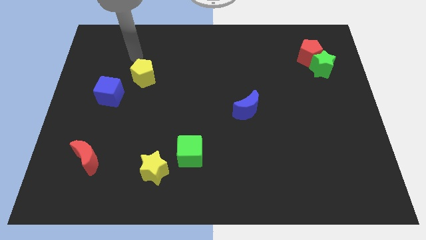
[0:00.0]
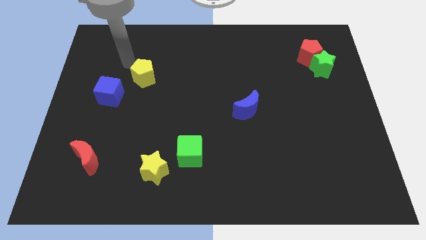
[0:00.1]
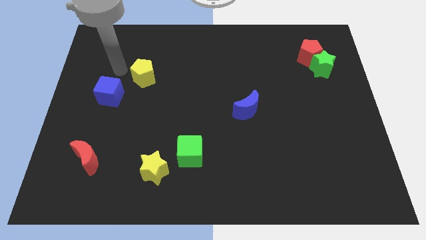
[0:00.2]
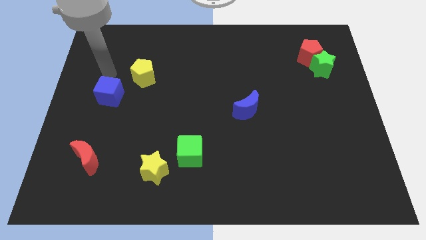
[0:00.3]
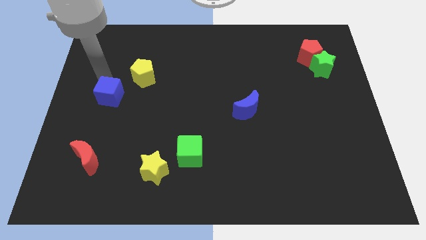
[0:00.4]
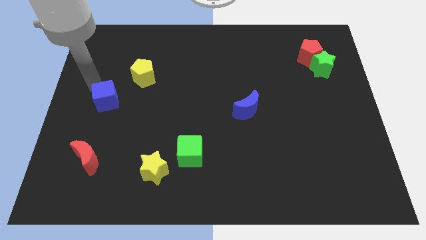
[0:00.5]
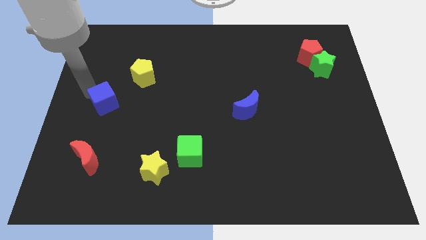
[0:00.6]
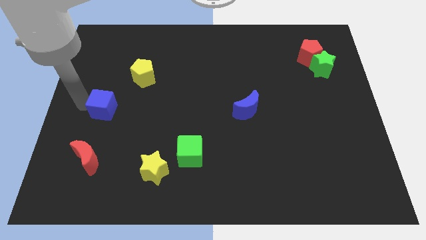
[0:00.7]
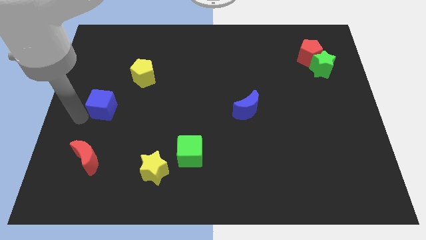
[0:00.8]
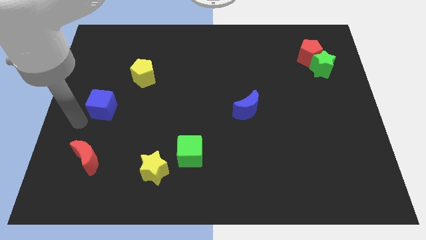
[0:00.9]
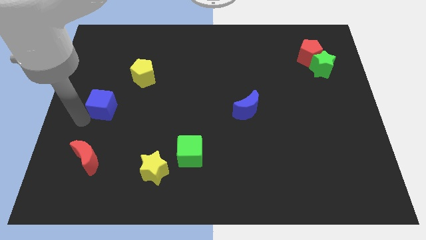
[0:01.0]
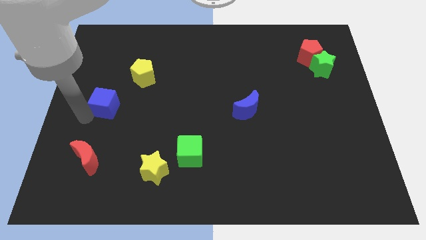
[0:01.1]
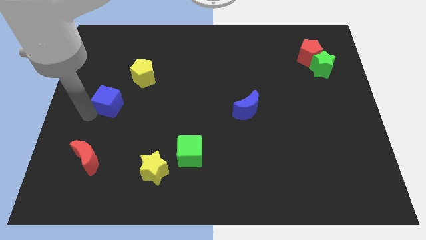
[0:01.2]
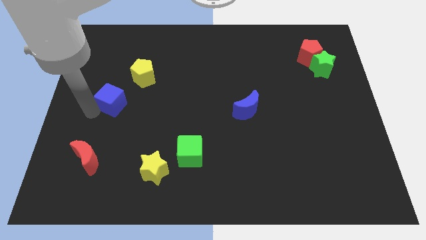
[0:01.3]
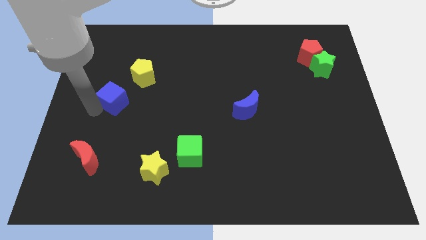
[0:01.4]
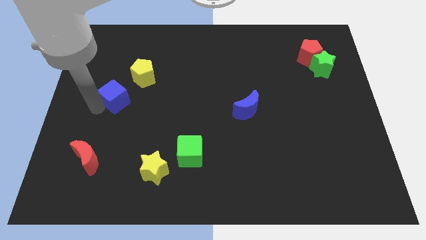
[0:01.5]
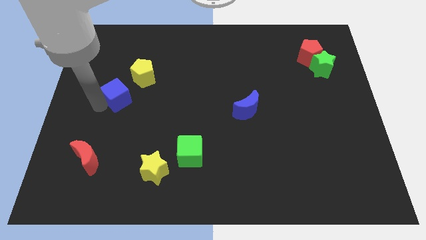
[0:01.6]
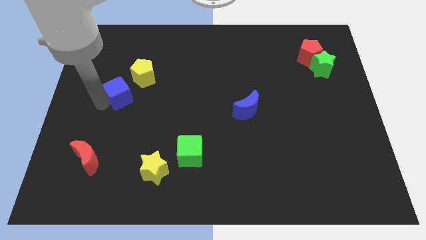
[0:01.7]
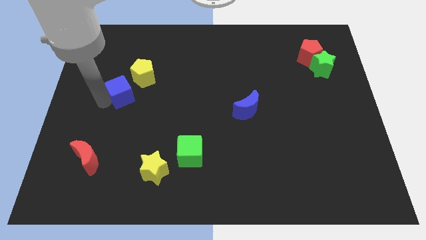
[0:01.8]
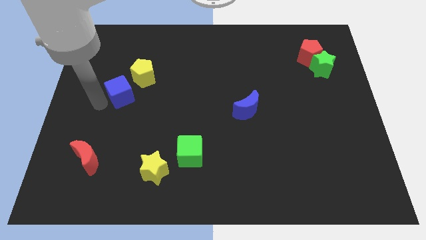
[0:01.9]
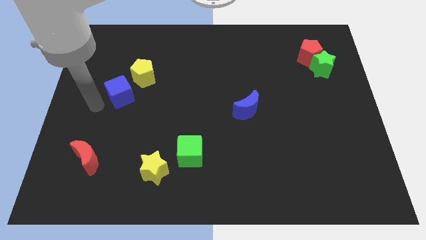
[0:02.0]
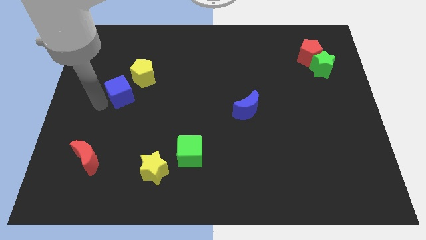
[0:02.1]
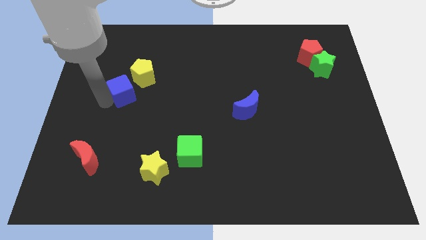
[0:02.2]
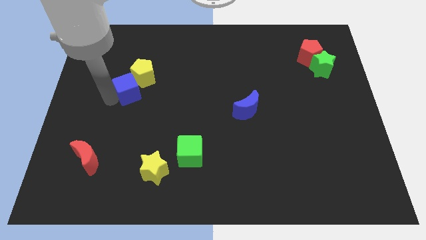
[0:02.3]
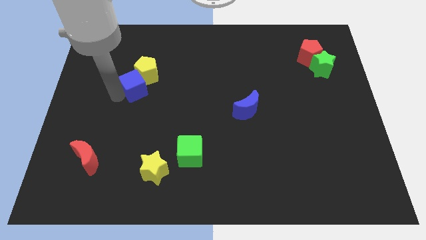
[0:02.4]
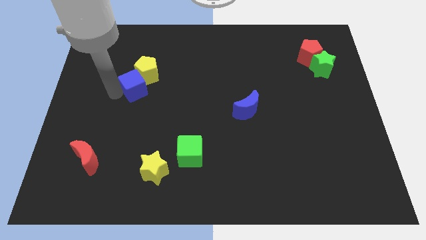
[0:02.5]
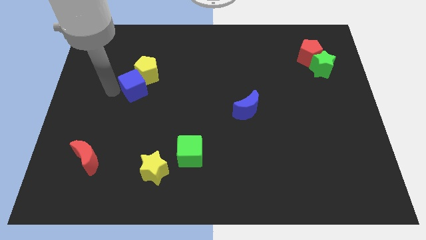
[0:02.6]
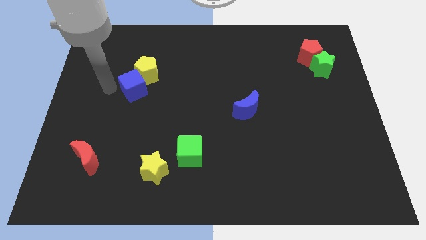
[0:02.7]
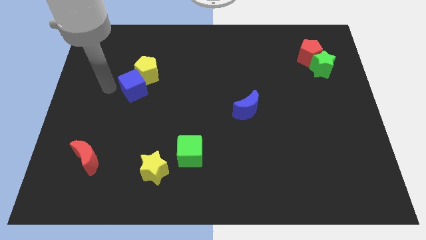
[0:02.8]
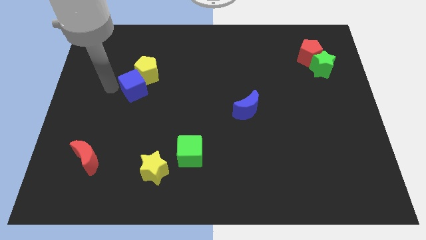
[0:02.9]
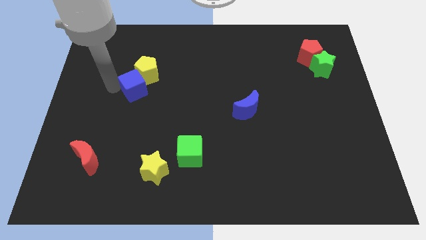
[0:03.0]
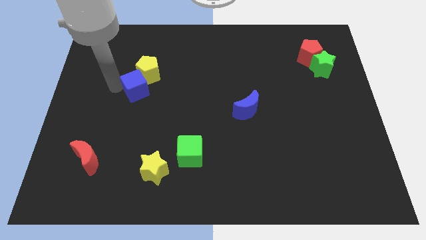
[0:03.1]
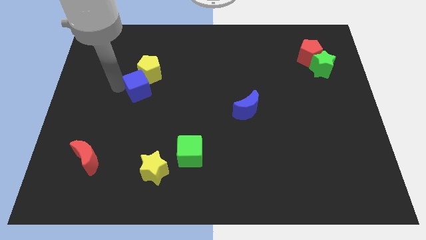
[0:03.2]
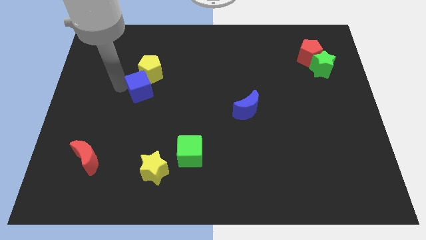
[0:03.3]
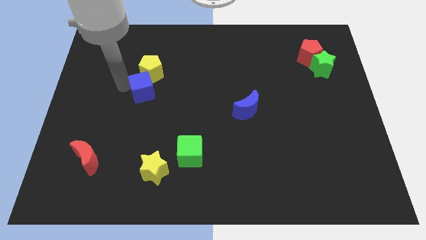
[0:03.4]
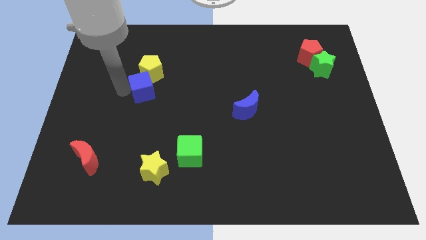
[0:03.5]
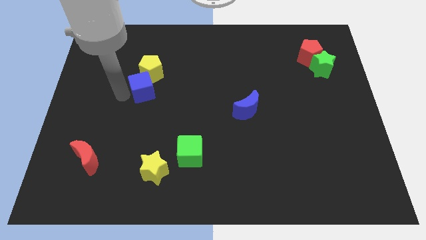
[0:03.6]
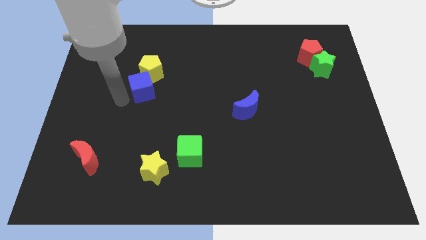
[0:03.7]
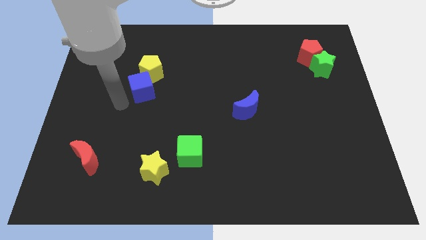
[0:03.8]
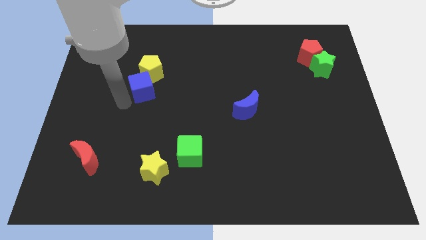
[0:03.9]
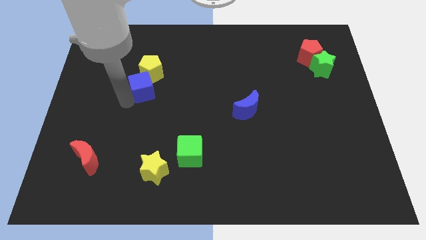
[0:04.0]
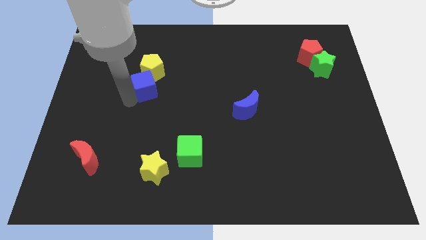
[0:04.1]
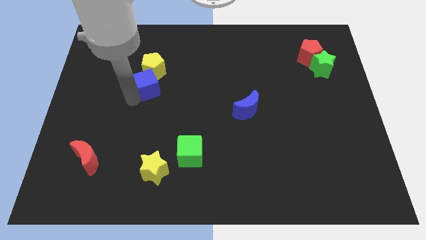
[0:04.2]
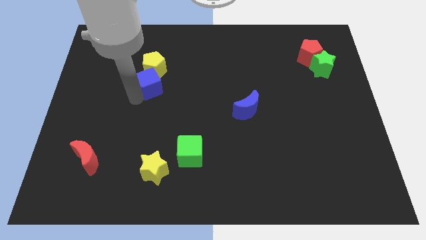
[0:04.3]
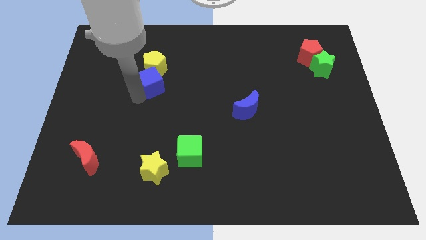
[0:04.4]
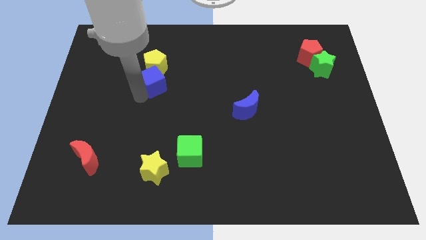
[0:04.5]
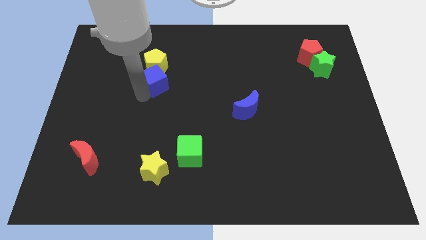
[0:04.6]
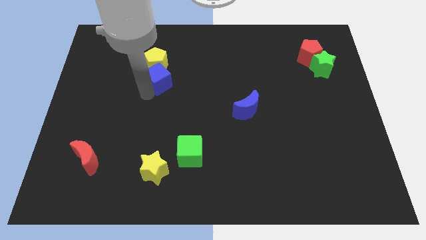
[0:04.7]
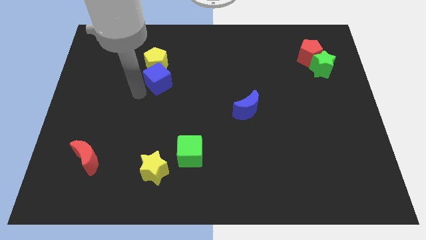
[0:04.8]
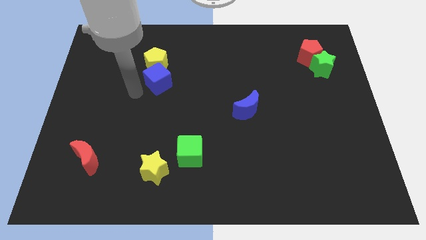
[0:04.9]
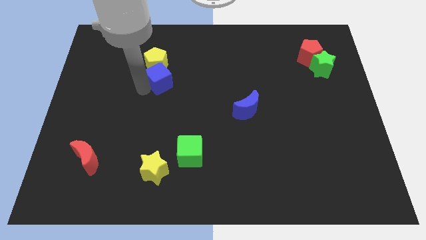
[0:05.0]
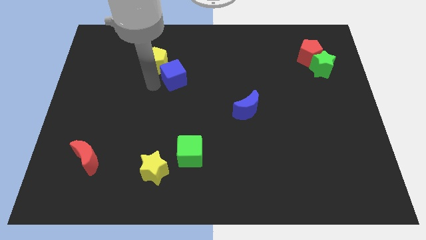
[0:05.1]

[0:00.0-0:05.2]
push the blue cube to the right side of the yellow pentagon

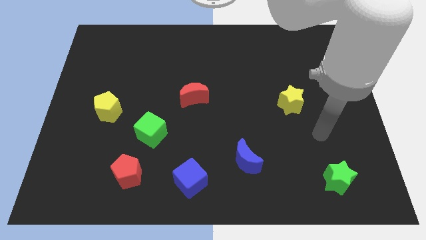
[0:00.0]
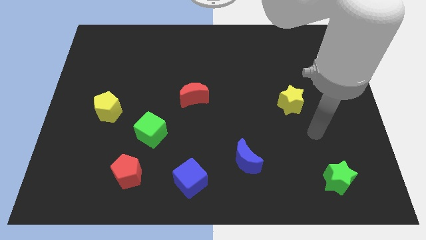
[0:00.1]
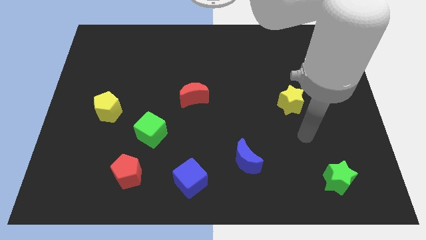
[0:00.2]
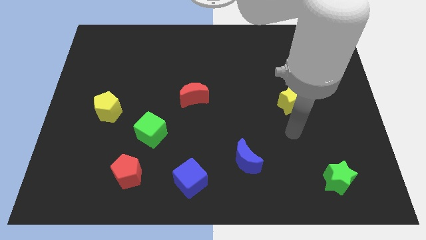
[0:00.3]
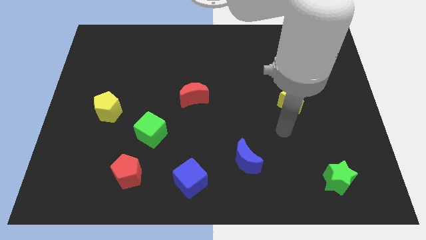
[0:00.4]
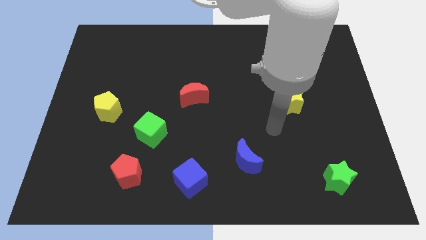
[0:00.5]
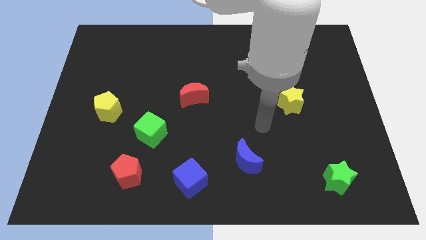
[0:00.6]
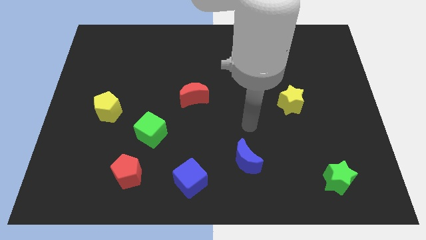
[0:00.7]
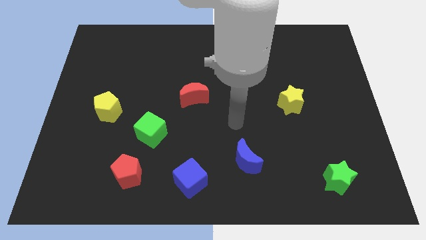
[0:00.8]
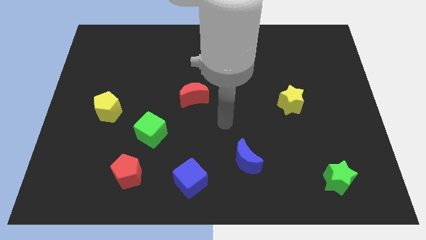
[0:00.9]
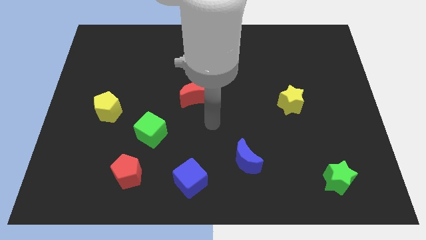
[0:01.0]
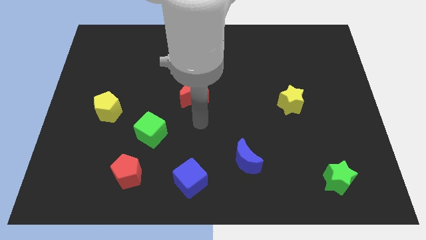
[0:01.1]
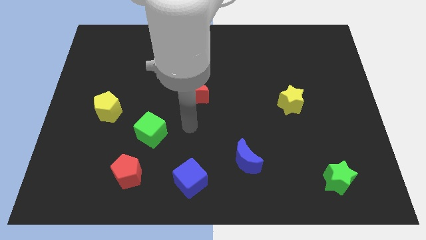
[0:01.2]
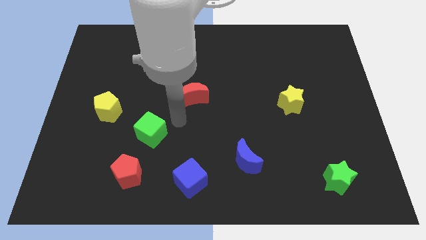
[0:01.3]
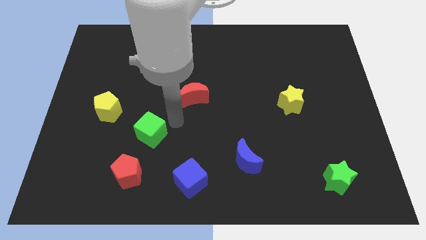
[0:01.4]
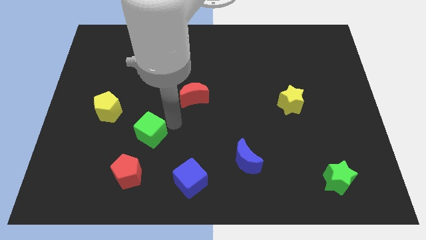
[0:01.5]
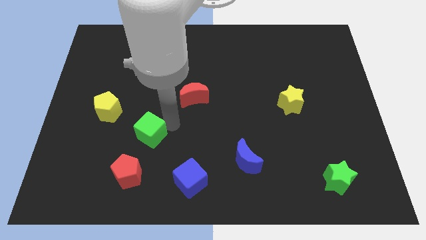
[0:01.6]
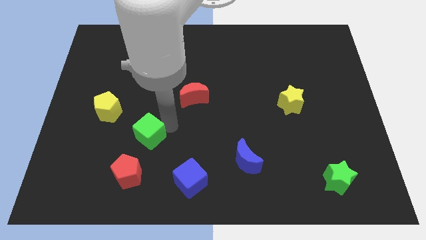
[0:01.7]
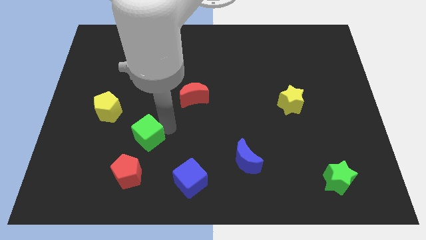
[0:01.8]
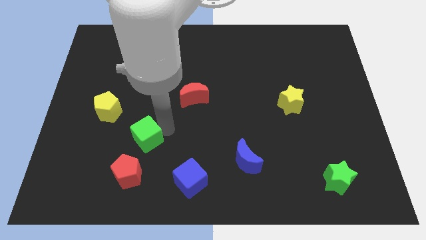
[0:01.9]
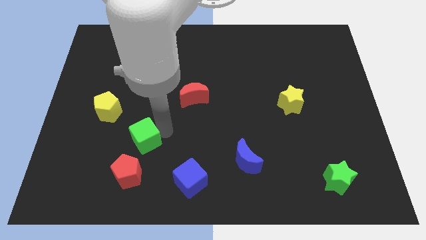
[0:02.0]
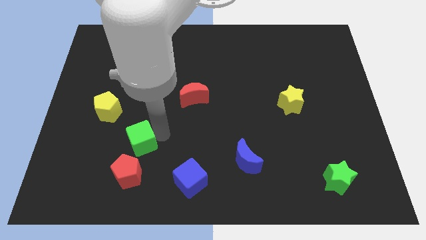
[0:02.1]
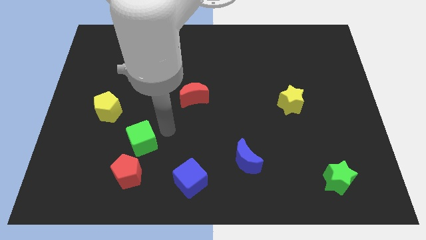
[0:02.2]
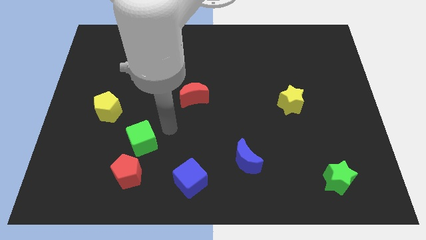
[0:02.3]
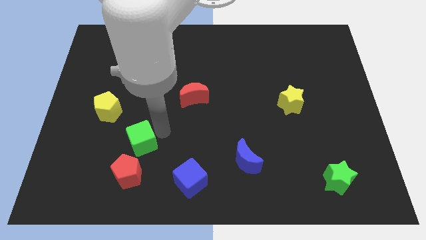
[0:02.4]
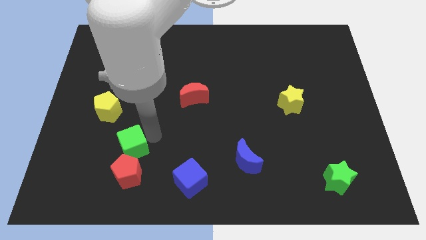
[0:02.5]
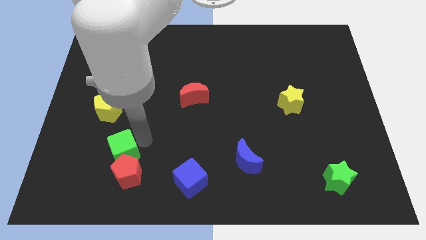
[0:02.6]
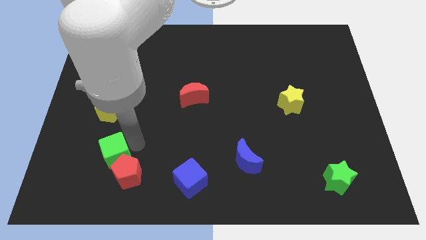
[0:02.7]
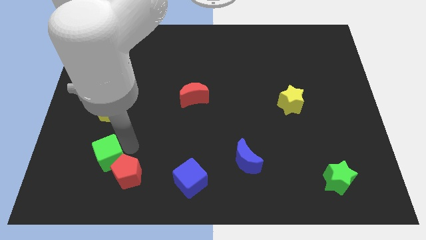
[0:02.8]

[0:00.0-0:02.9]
slide the green cube just left of the red pentagon
